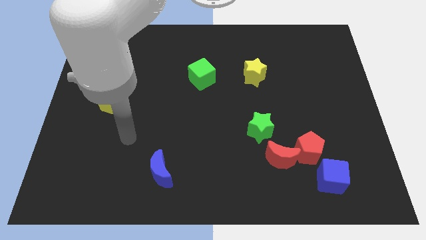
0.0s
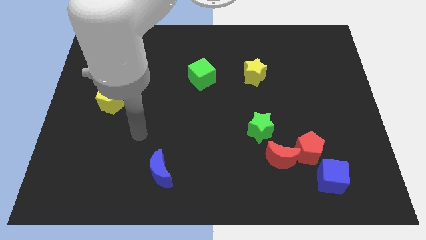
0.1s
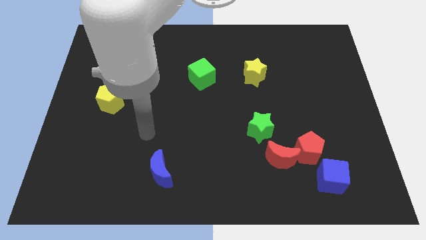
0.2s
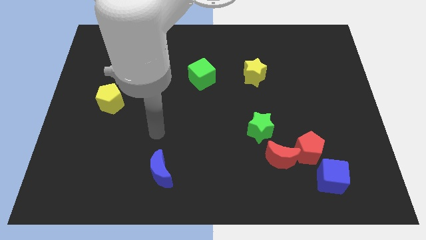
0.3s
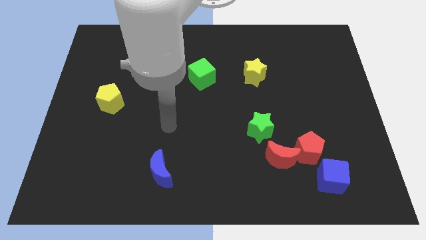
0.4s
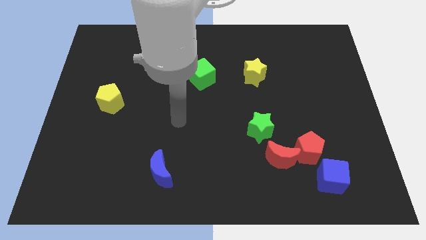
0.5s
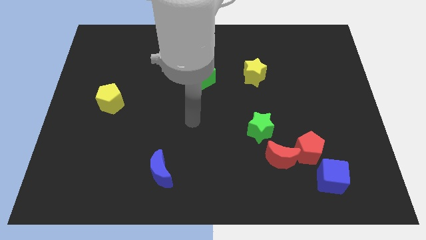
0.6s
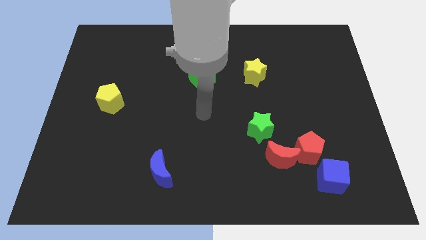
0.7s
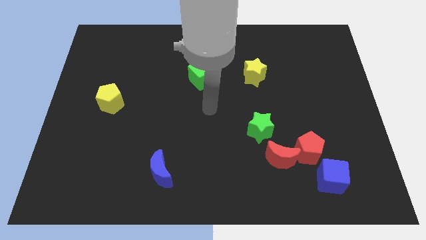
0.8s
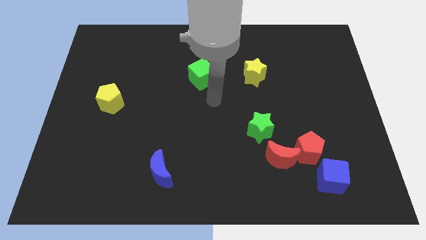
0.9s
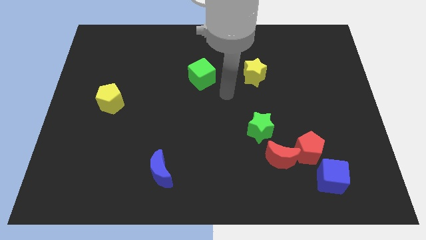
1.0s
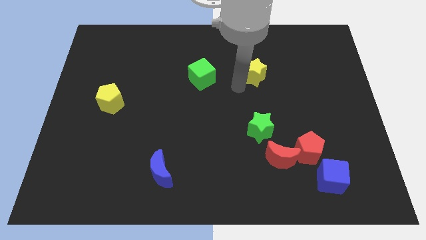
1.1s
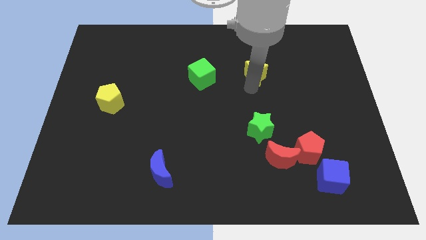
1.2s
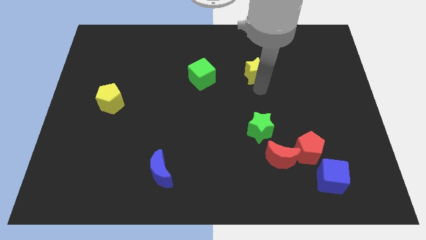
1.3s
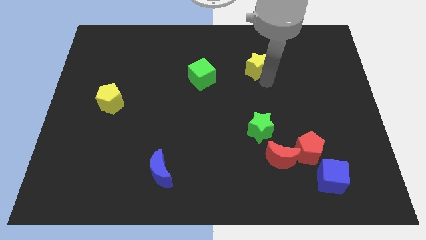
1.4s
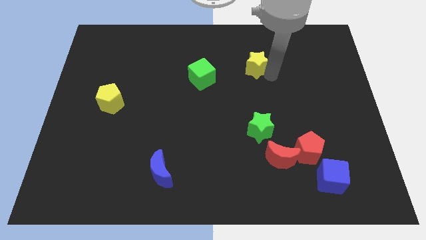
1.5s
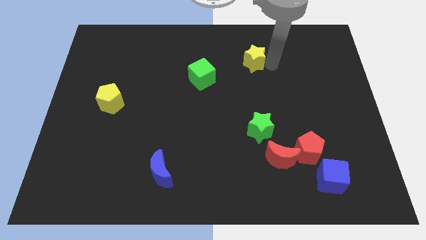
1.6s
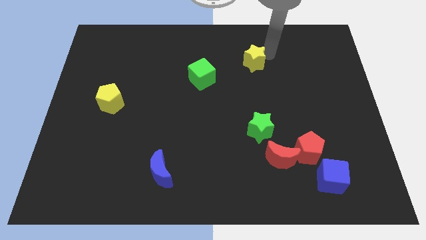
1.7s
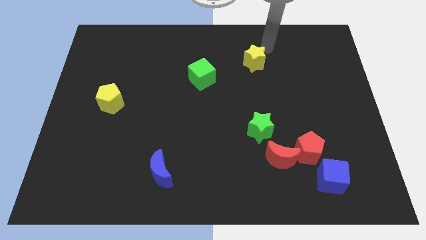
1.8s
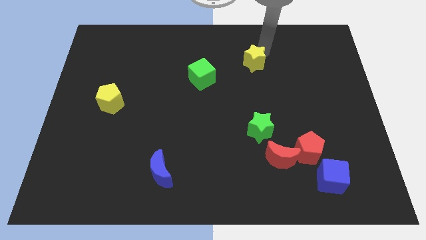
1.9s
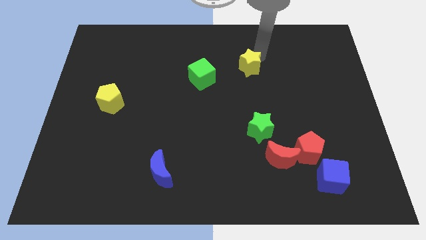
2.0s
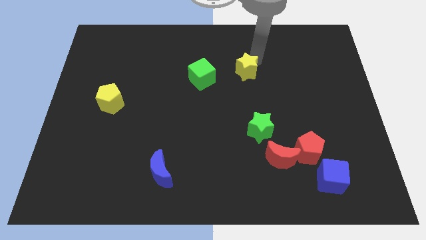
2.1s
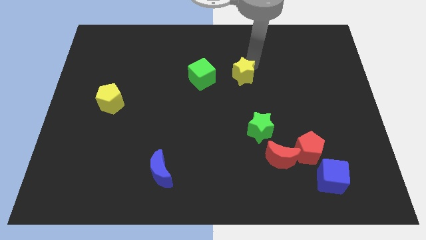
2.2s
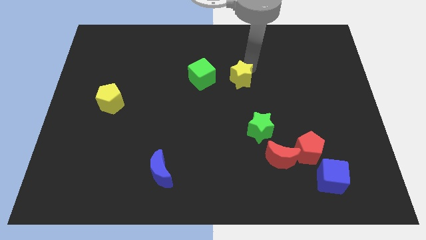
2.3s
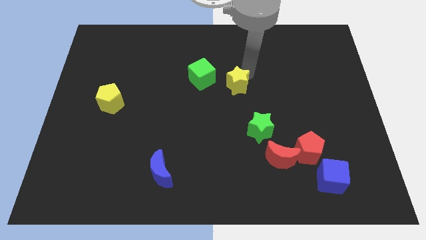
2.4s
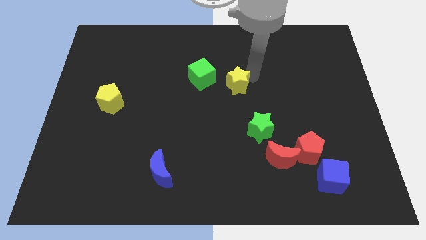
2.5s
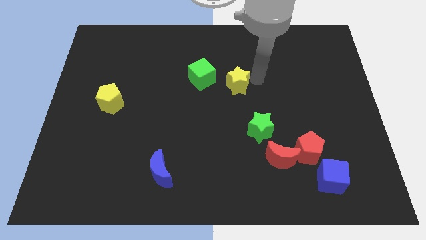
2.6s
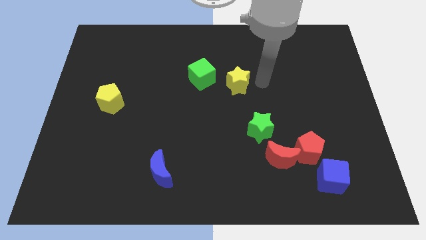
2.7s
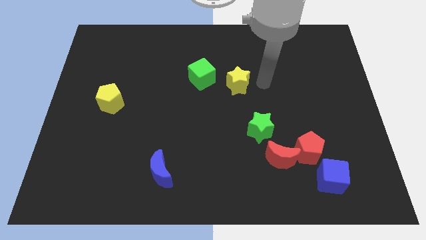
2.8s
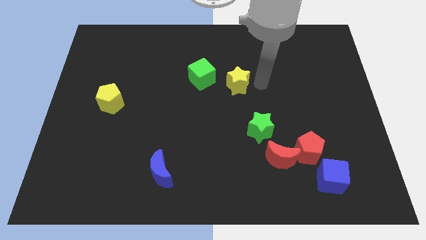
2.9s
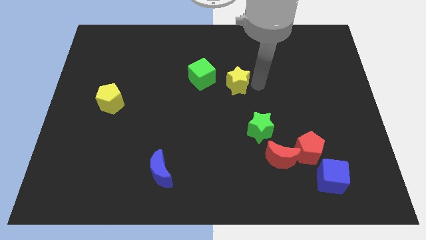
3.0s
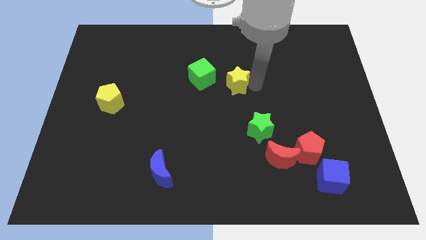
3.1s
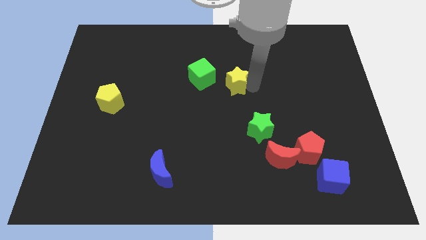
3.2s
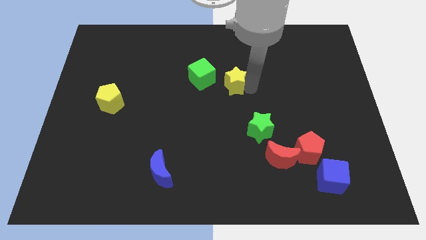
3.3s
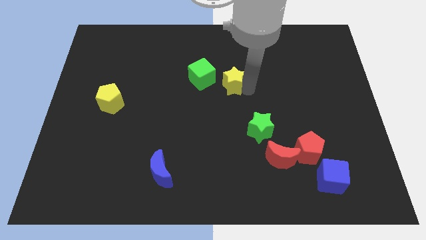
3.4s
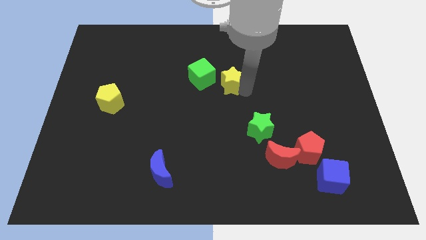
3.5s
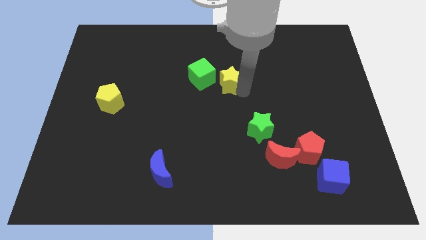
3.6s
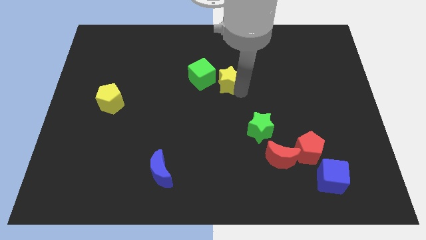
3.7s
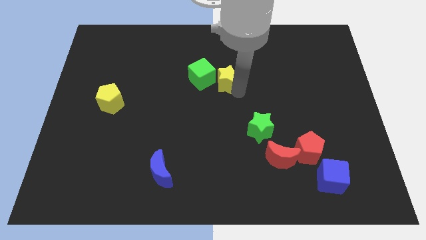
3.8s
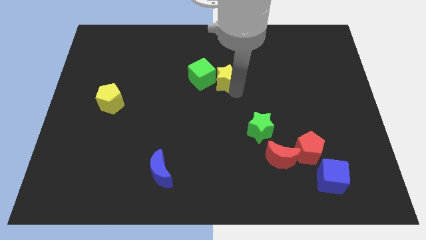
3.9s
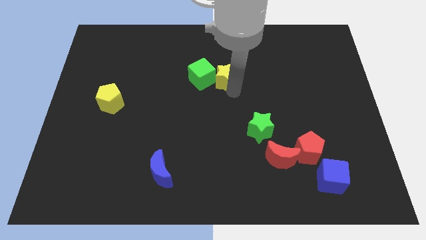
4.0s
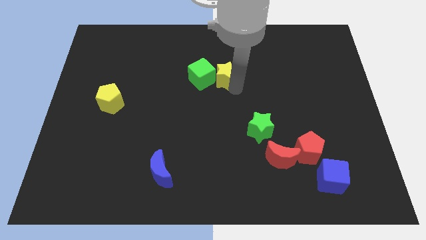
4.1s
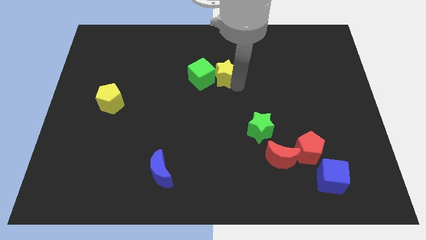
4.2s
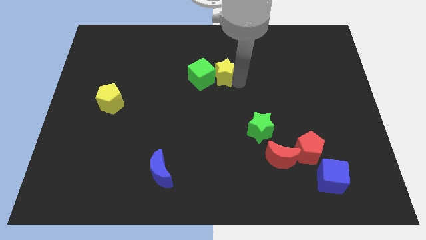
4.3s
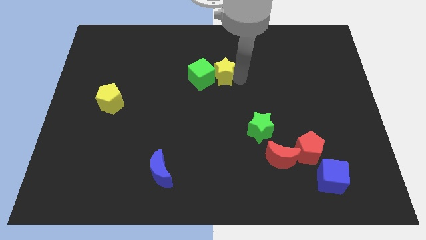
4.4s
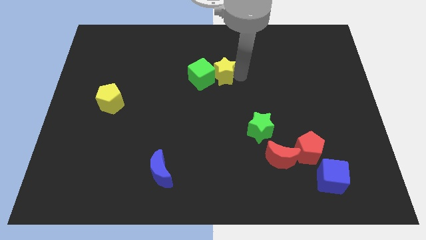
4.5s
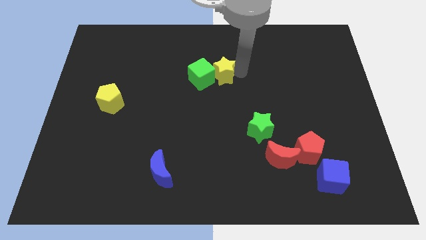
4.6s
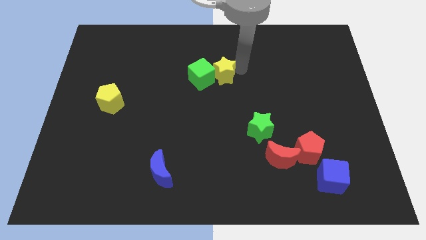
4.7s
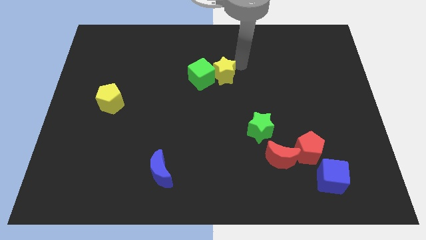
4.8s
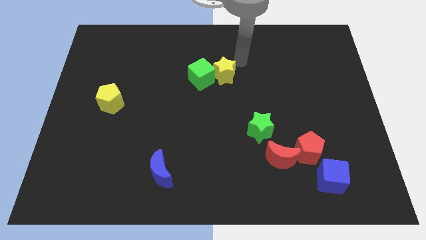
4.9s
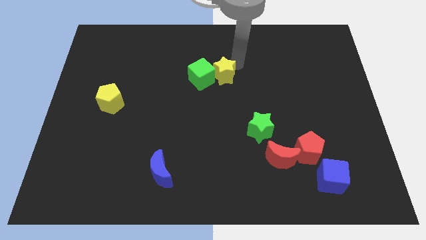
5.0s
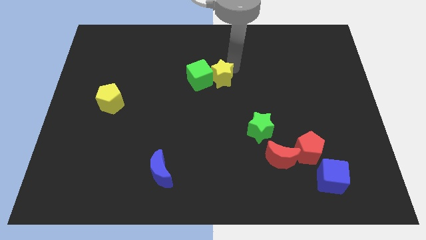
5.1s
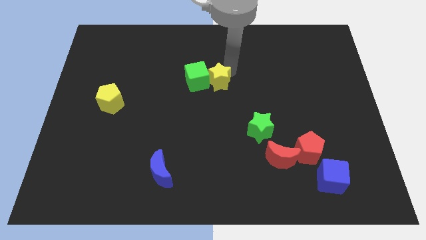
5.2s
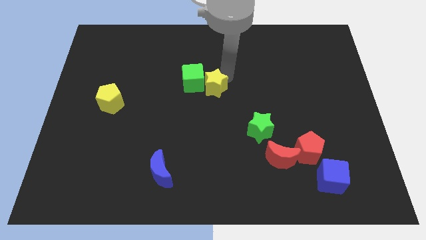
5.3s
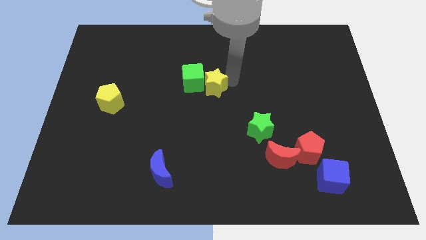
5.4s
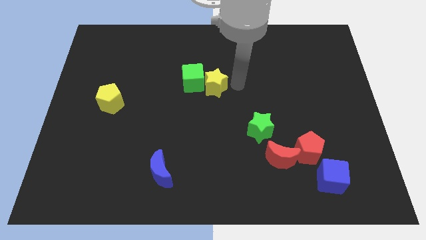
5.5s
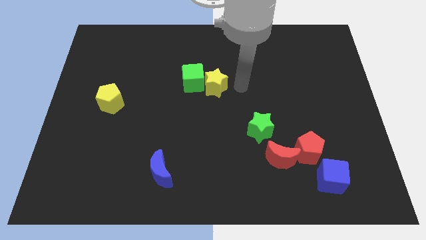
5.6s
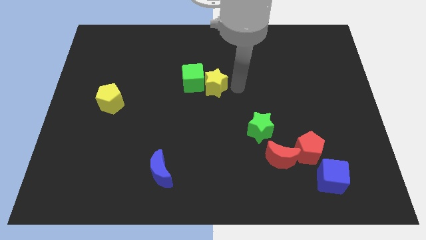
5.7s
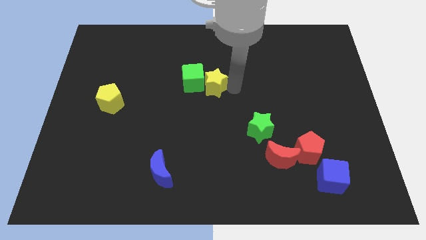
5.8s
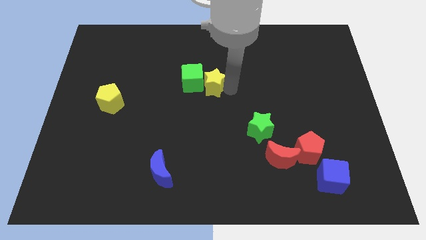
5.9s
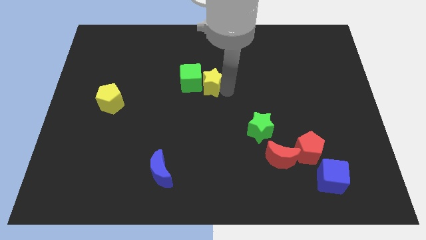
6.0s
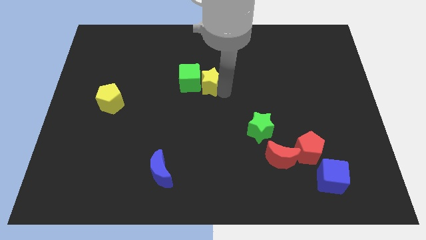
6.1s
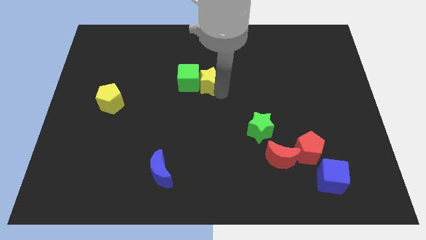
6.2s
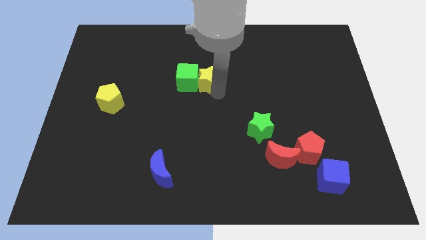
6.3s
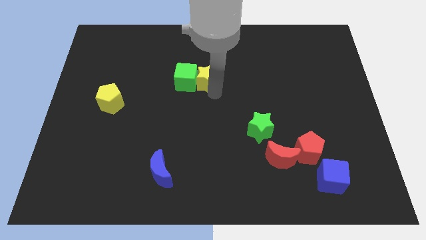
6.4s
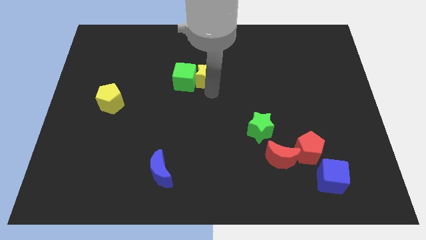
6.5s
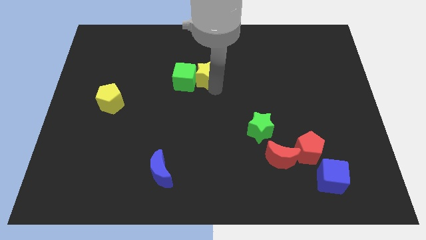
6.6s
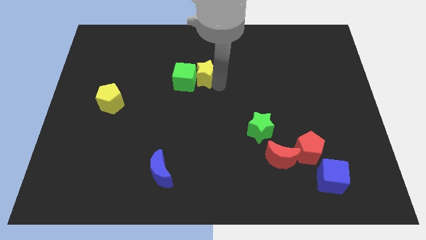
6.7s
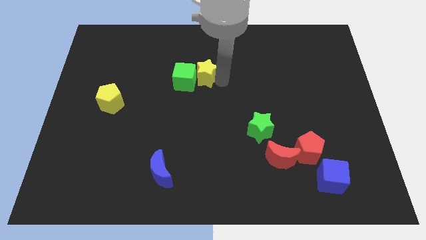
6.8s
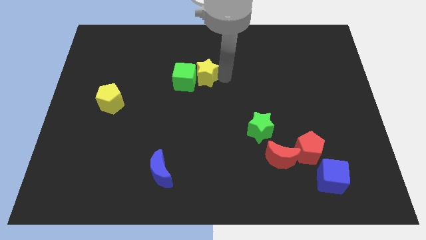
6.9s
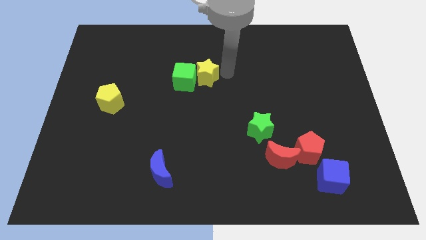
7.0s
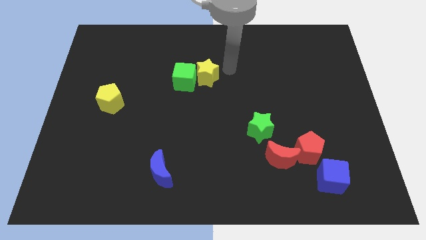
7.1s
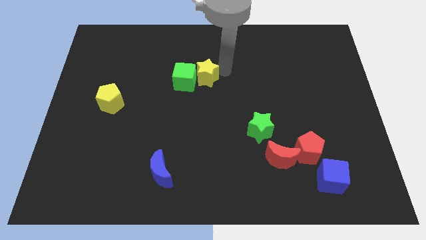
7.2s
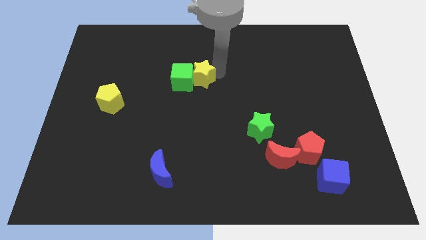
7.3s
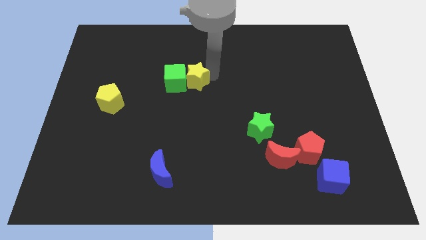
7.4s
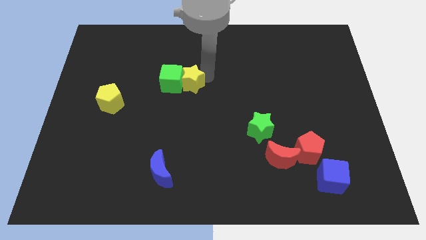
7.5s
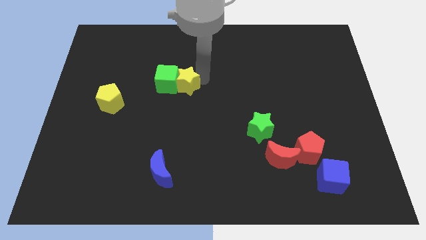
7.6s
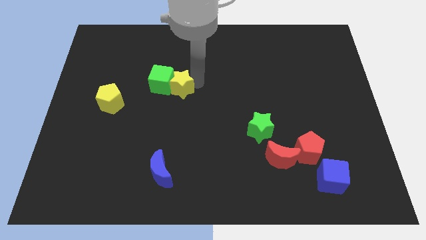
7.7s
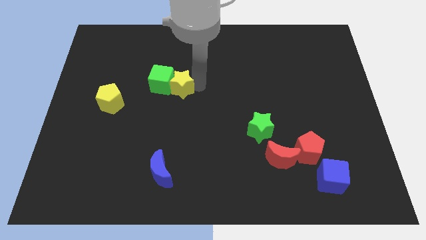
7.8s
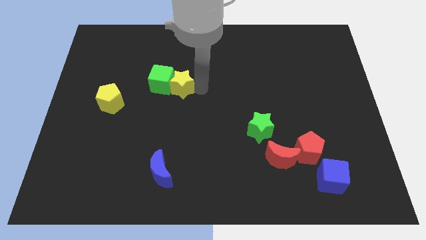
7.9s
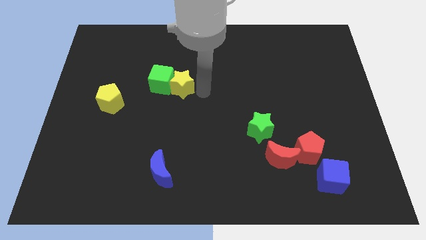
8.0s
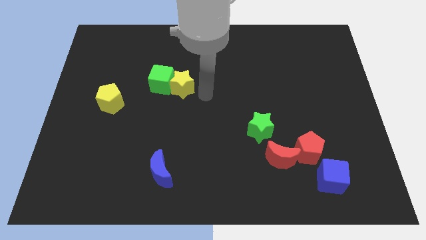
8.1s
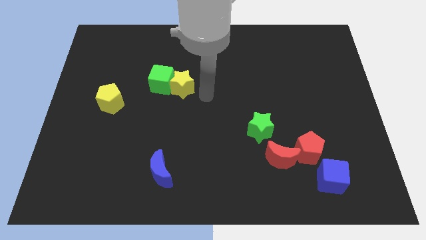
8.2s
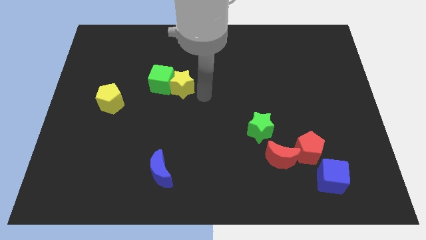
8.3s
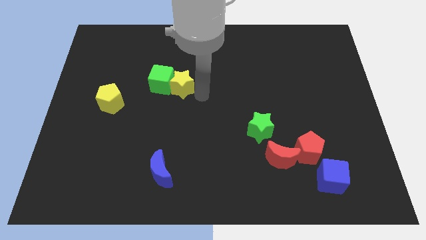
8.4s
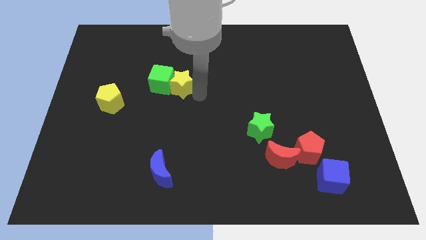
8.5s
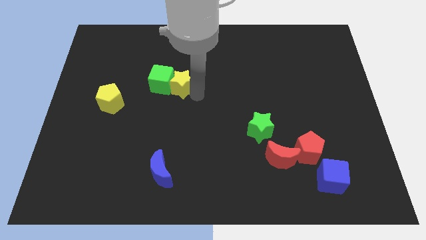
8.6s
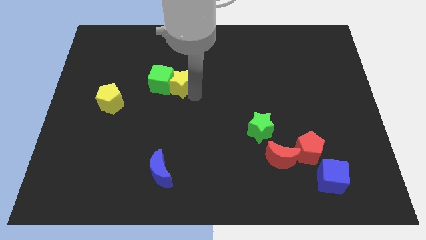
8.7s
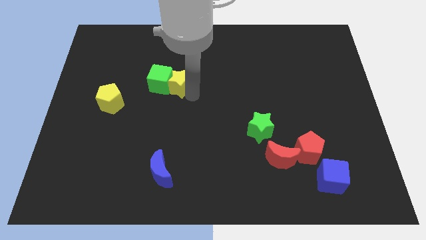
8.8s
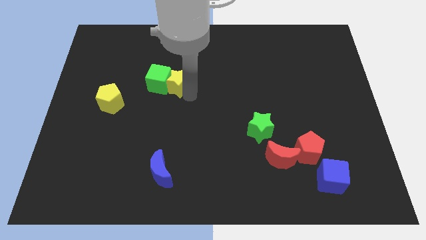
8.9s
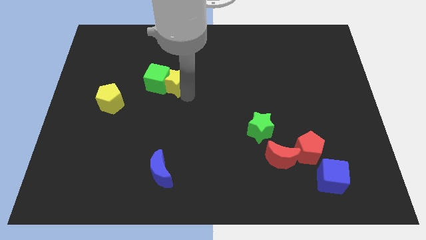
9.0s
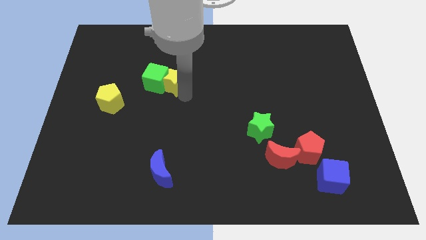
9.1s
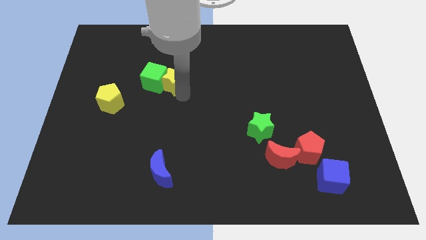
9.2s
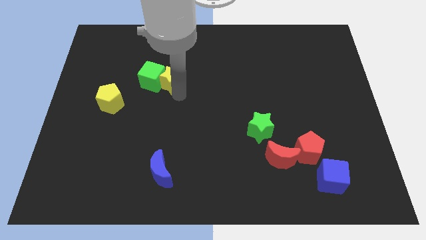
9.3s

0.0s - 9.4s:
push the yellow star to the left
